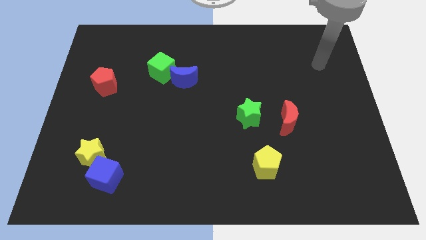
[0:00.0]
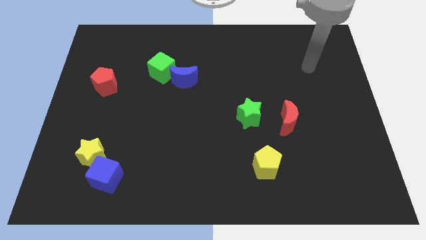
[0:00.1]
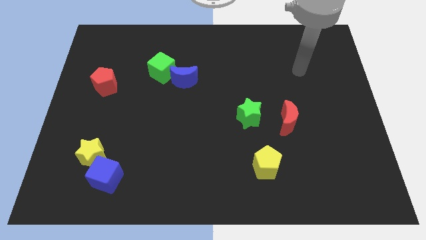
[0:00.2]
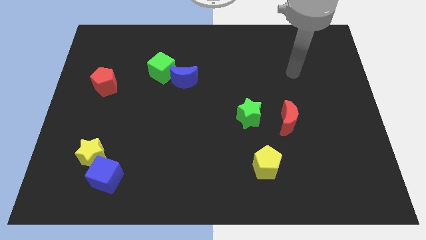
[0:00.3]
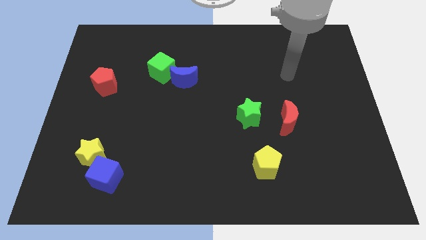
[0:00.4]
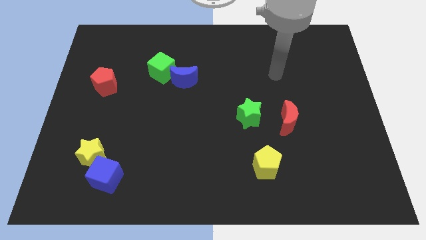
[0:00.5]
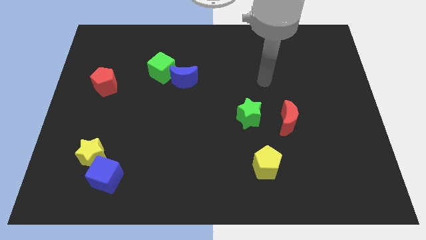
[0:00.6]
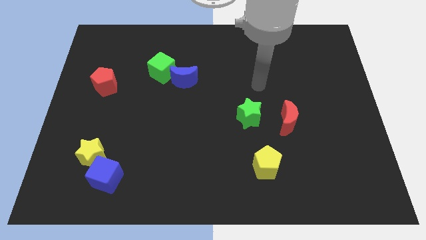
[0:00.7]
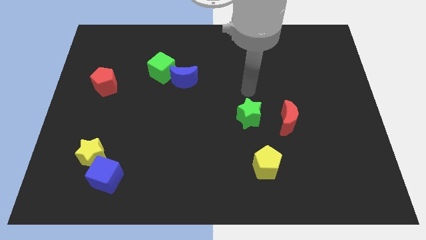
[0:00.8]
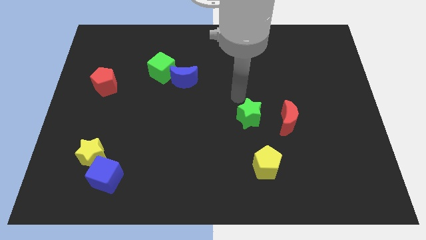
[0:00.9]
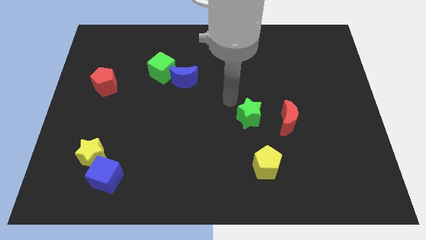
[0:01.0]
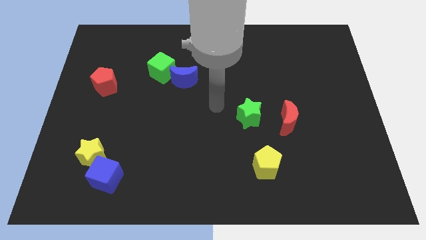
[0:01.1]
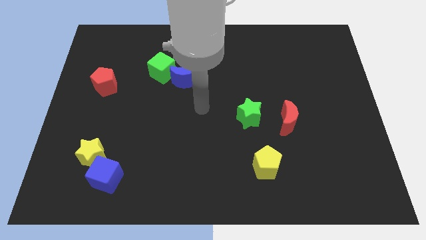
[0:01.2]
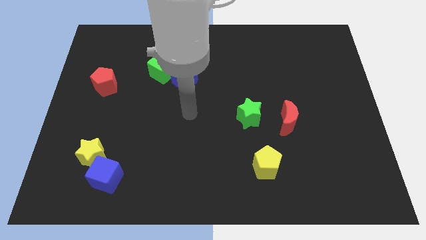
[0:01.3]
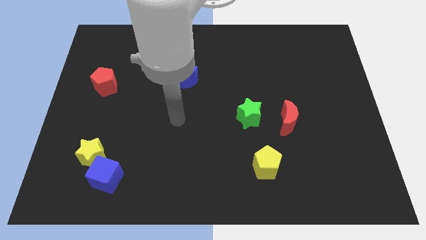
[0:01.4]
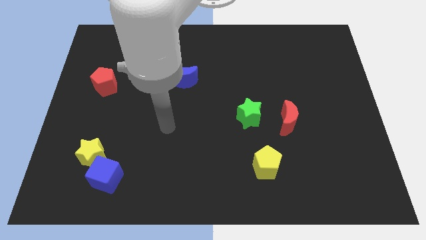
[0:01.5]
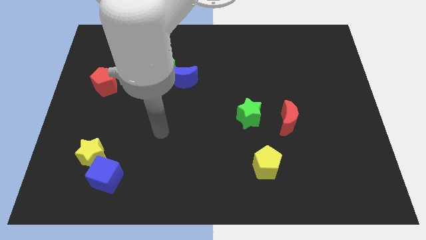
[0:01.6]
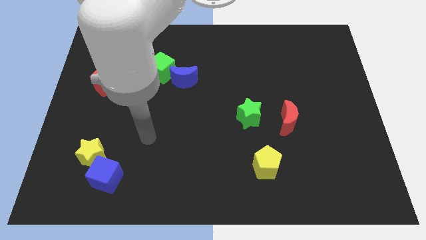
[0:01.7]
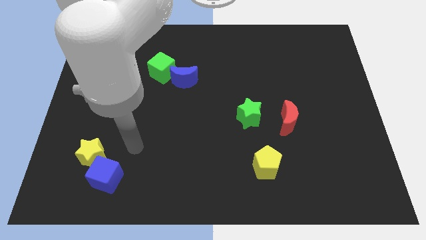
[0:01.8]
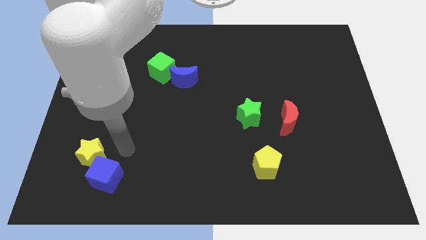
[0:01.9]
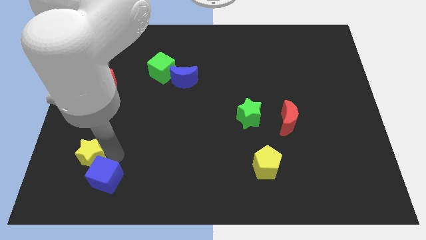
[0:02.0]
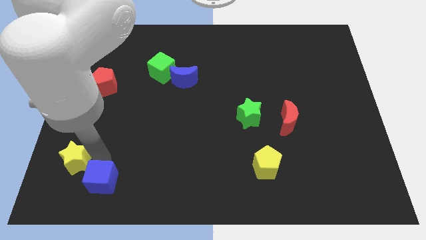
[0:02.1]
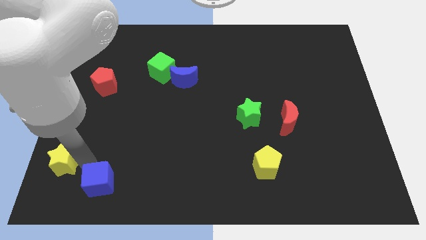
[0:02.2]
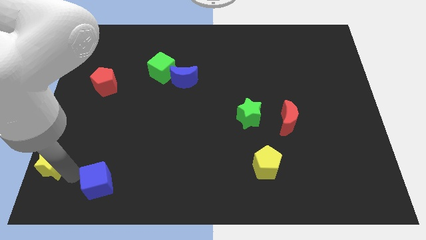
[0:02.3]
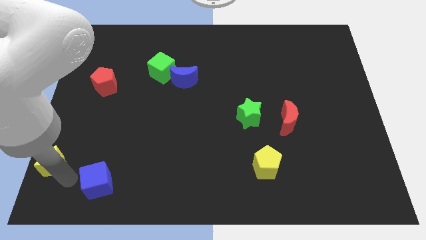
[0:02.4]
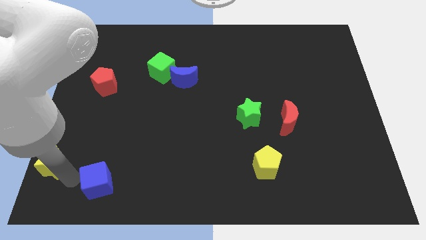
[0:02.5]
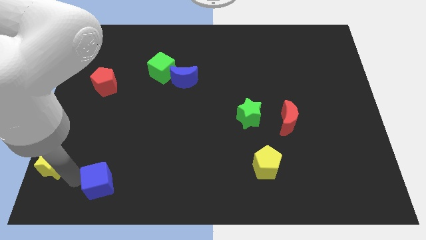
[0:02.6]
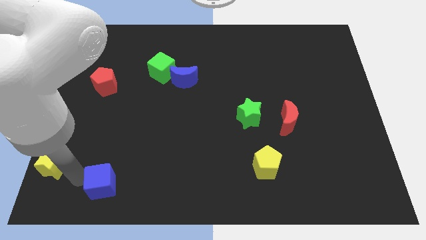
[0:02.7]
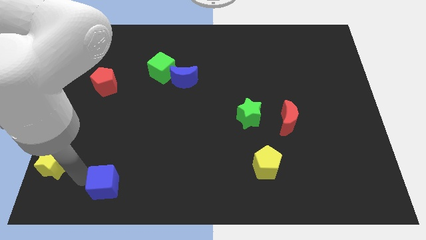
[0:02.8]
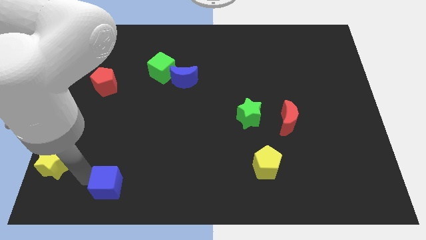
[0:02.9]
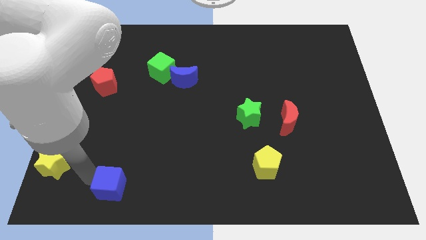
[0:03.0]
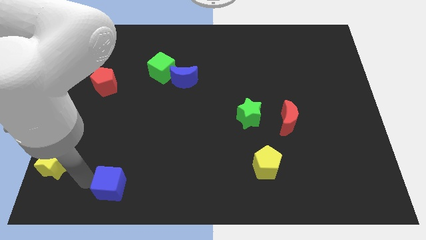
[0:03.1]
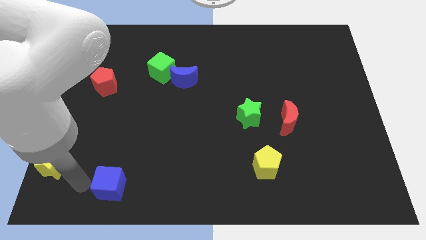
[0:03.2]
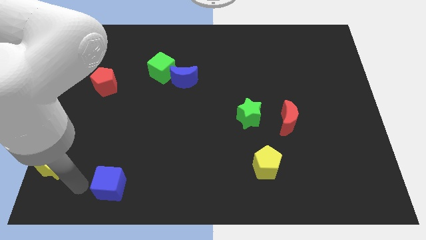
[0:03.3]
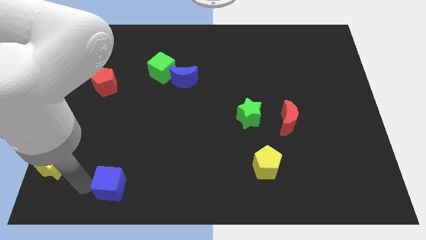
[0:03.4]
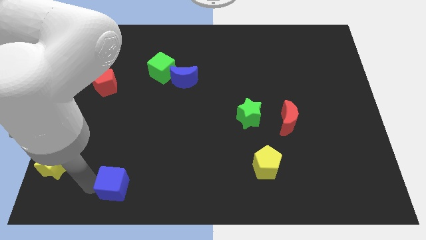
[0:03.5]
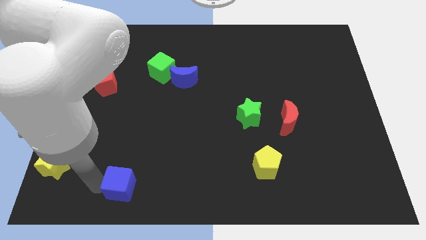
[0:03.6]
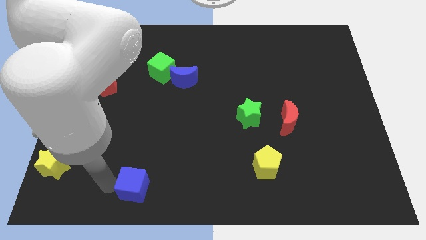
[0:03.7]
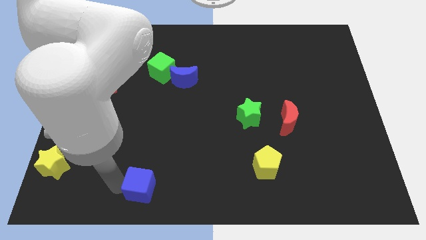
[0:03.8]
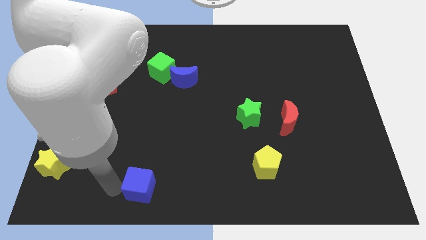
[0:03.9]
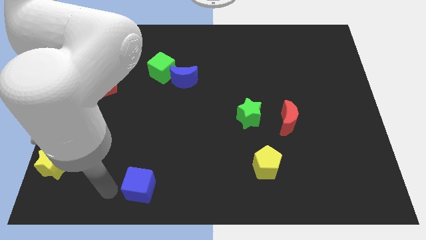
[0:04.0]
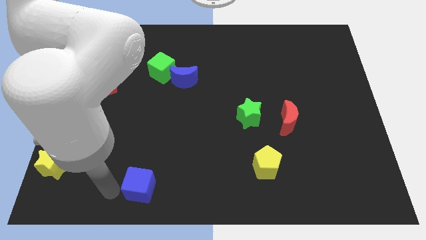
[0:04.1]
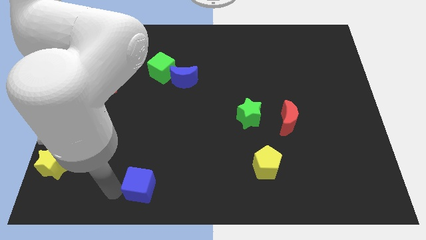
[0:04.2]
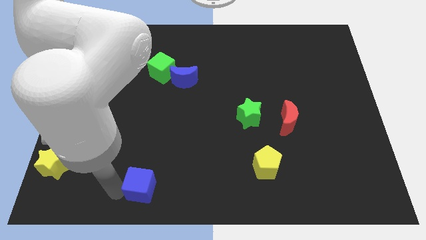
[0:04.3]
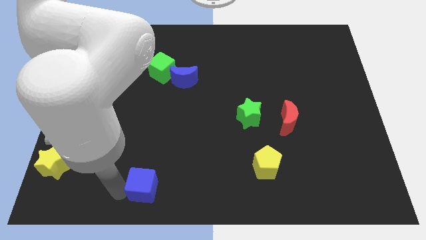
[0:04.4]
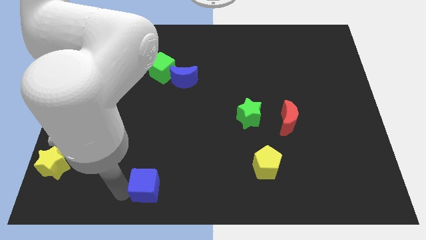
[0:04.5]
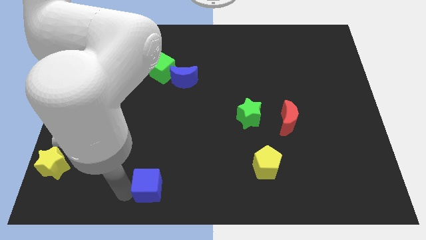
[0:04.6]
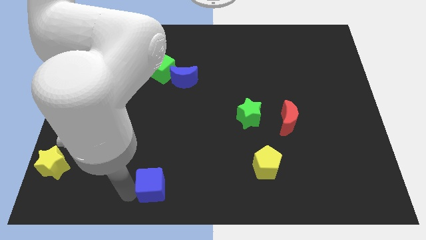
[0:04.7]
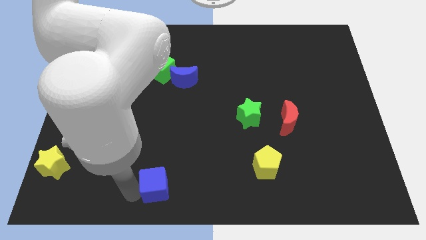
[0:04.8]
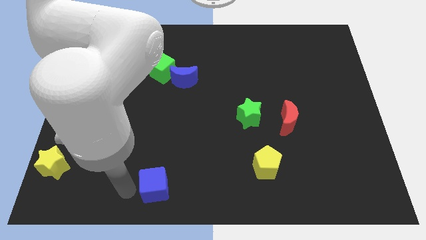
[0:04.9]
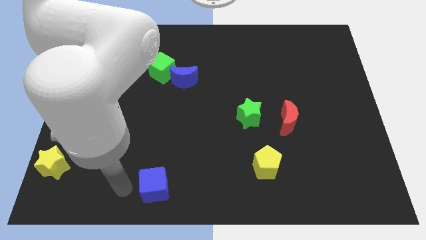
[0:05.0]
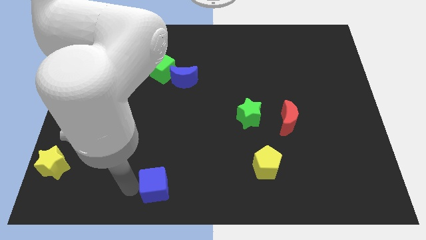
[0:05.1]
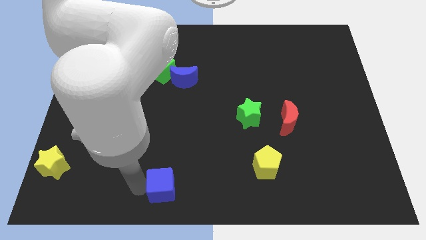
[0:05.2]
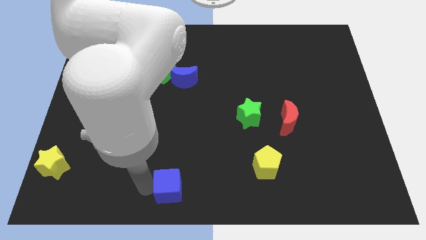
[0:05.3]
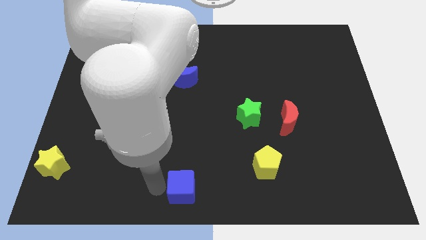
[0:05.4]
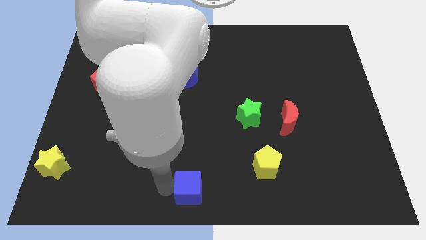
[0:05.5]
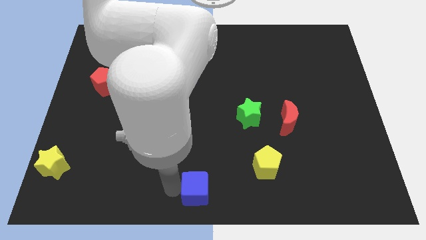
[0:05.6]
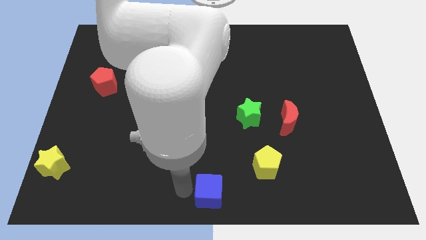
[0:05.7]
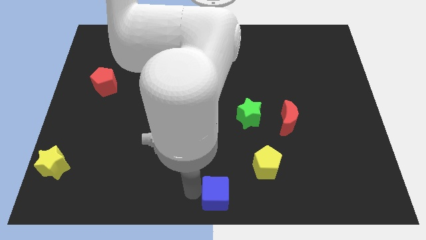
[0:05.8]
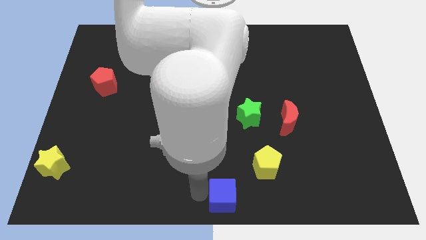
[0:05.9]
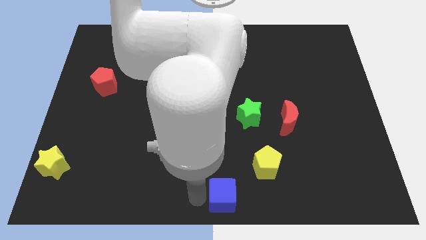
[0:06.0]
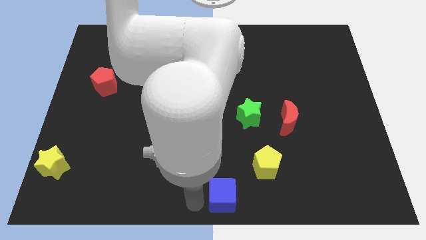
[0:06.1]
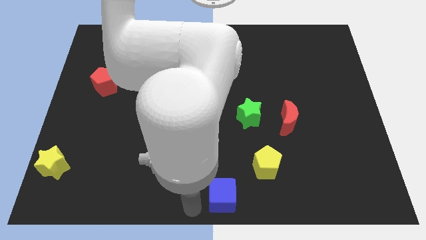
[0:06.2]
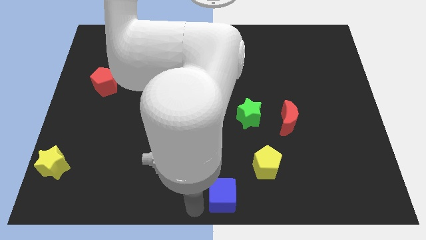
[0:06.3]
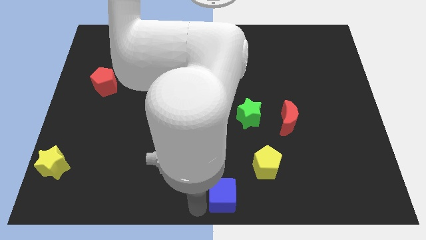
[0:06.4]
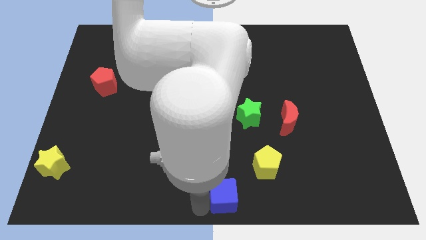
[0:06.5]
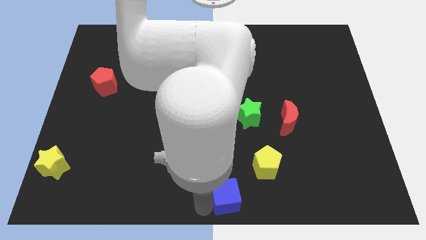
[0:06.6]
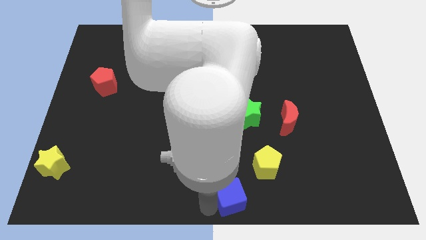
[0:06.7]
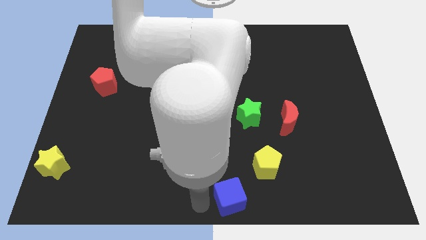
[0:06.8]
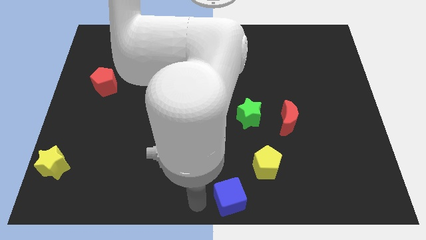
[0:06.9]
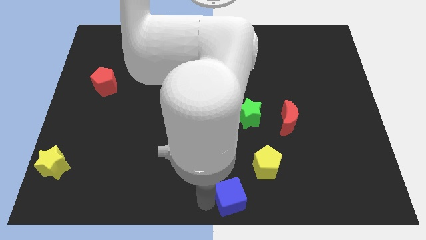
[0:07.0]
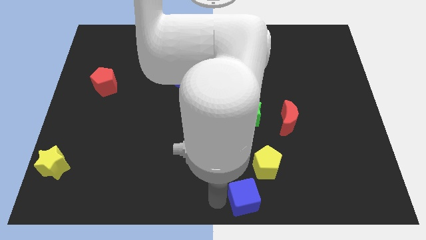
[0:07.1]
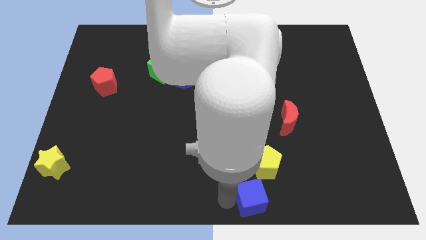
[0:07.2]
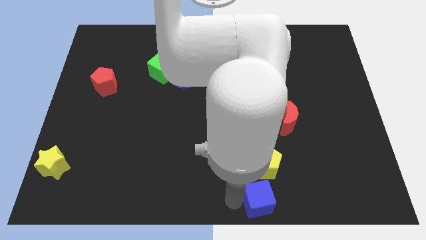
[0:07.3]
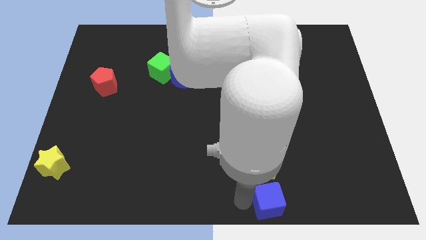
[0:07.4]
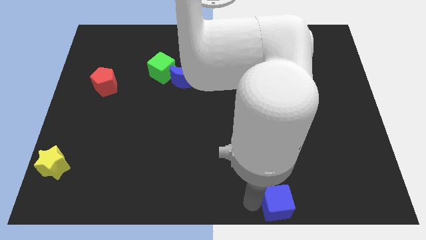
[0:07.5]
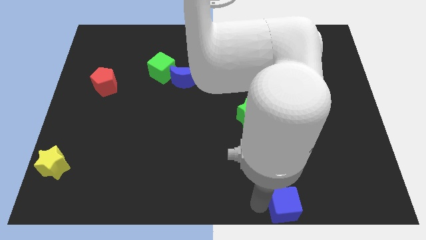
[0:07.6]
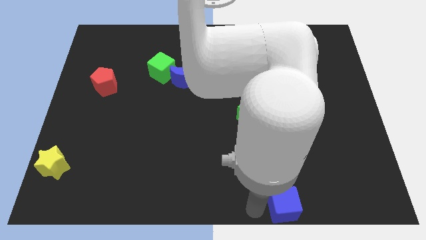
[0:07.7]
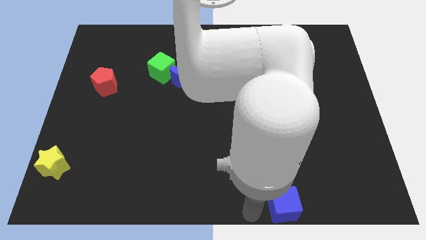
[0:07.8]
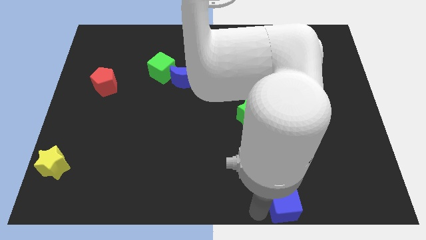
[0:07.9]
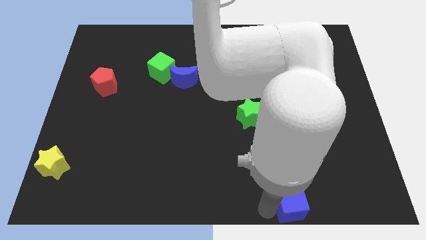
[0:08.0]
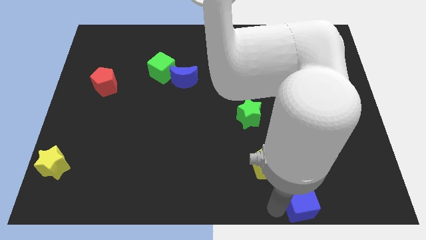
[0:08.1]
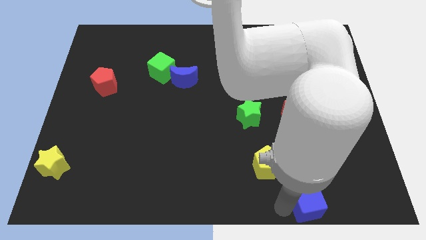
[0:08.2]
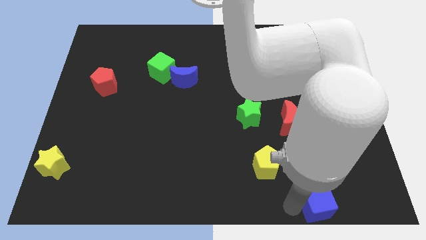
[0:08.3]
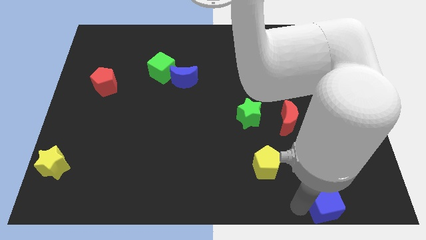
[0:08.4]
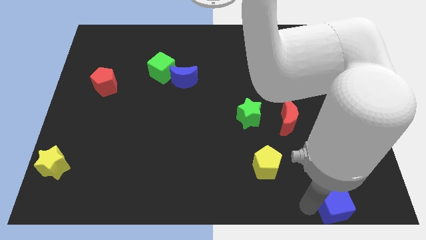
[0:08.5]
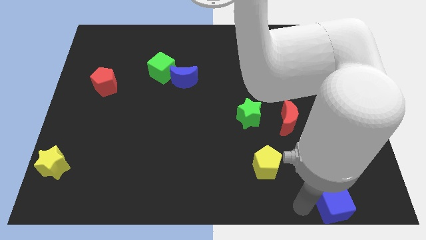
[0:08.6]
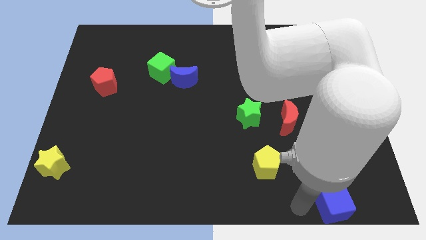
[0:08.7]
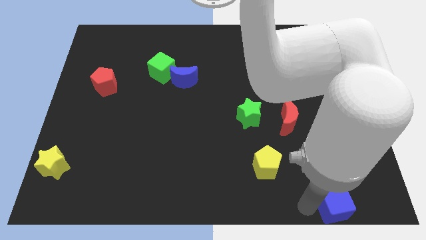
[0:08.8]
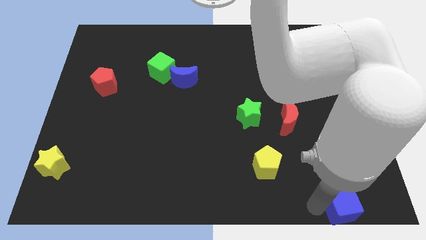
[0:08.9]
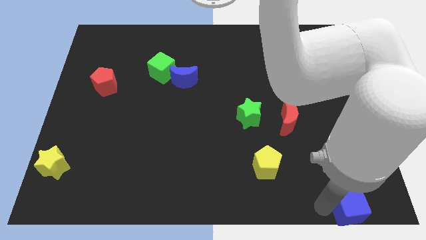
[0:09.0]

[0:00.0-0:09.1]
put the blue cube to the lower right corner
